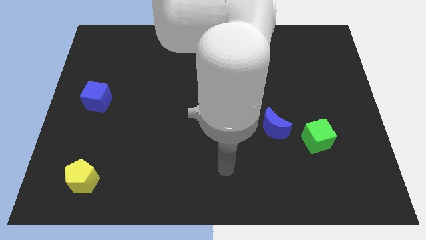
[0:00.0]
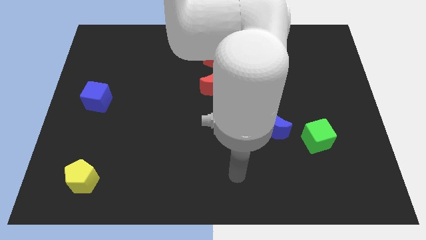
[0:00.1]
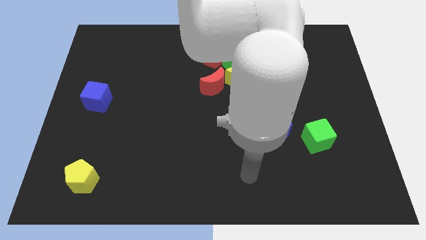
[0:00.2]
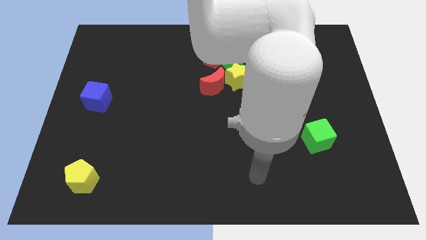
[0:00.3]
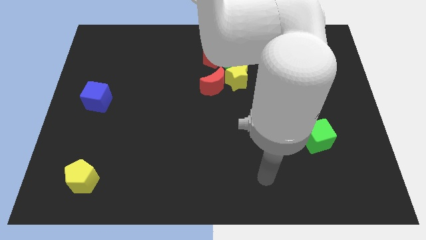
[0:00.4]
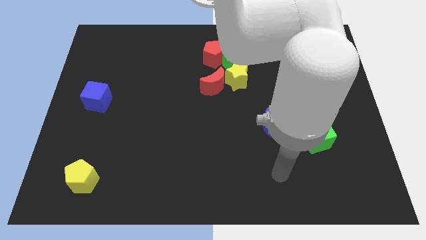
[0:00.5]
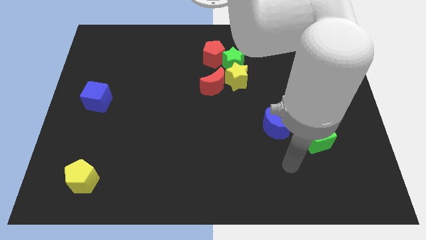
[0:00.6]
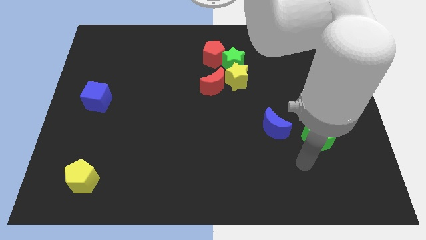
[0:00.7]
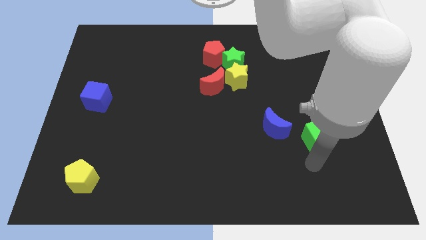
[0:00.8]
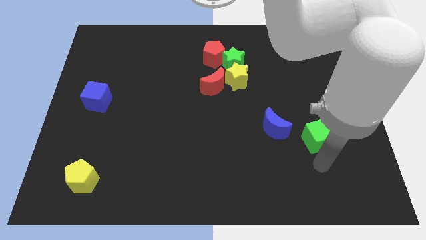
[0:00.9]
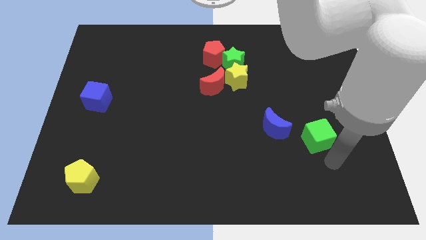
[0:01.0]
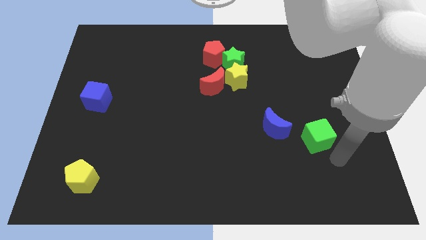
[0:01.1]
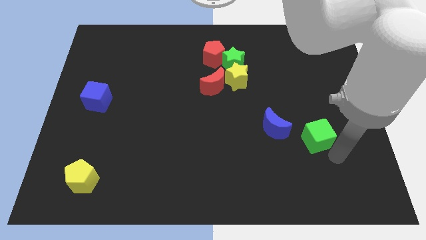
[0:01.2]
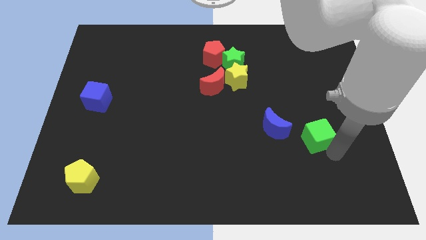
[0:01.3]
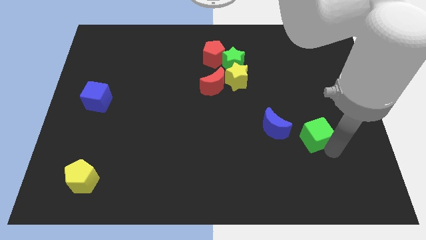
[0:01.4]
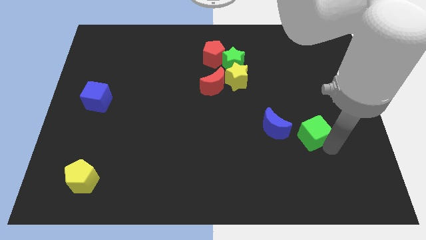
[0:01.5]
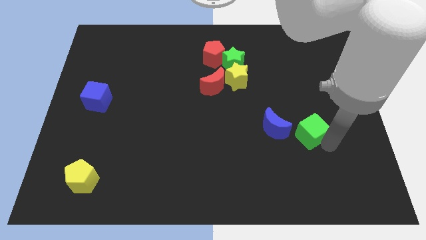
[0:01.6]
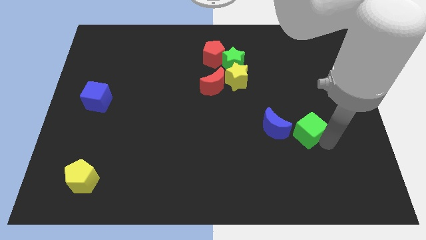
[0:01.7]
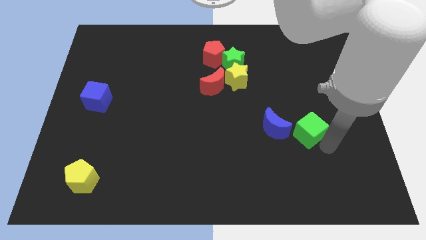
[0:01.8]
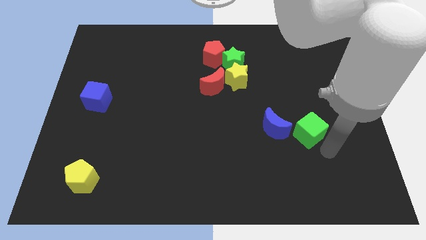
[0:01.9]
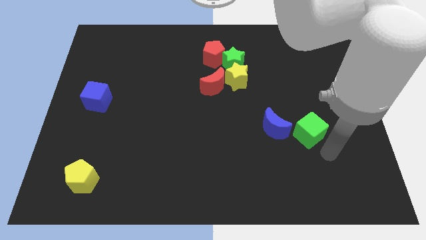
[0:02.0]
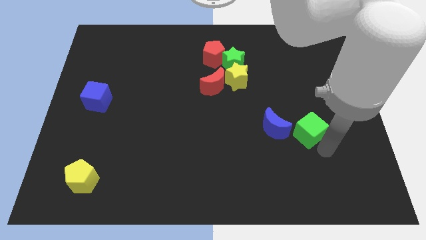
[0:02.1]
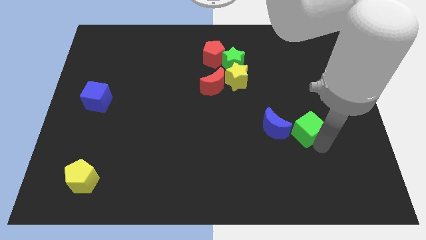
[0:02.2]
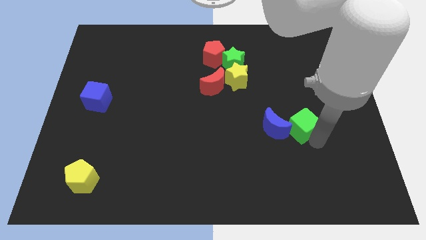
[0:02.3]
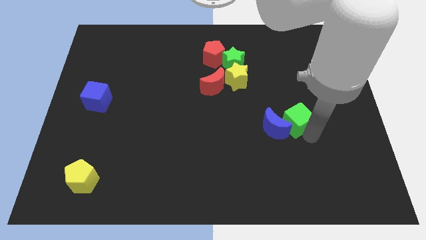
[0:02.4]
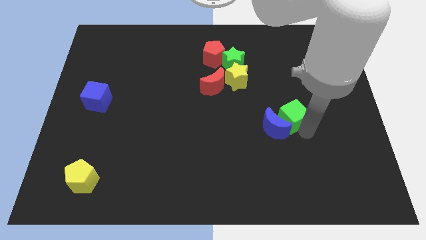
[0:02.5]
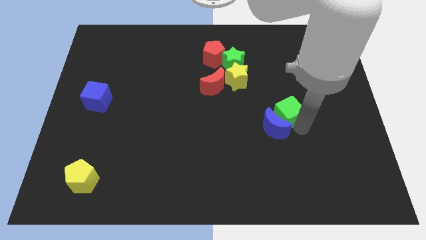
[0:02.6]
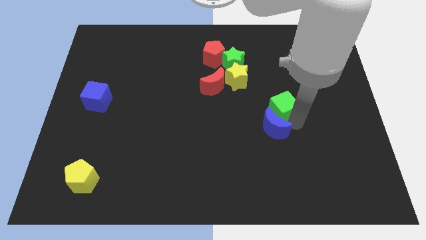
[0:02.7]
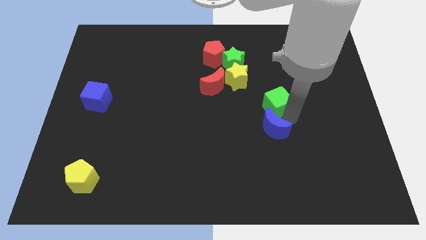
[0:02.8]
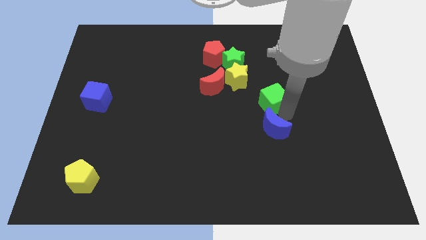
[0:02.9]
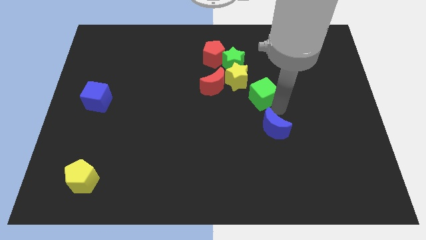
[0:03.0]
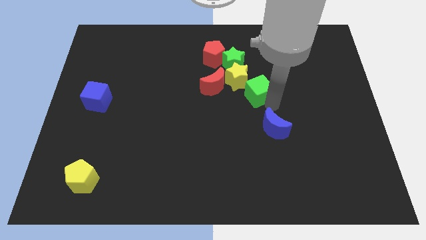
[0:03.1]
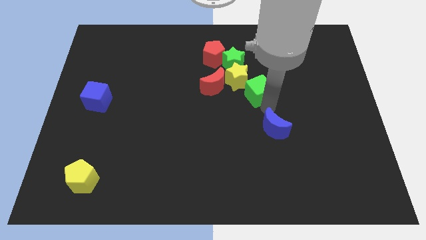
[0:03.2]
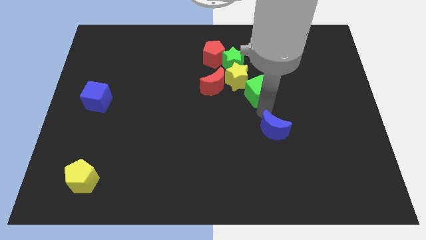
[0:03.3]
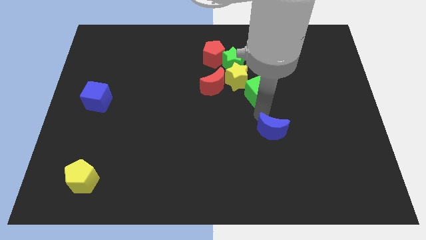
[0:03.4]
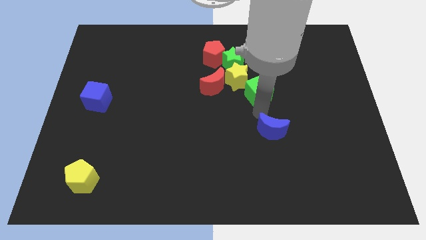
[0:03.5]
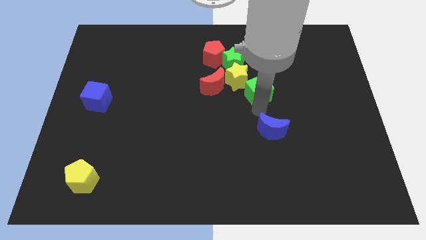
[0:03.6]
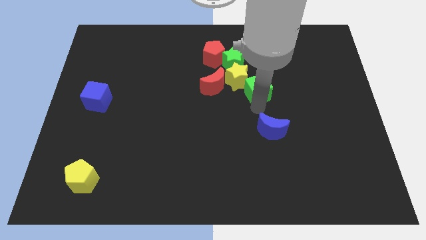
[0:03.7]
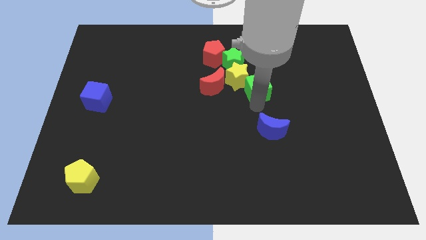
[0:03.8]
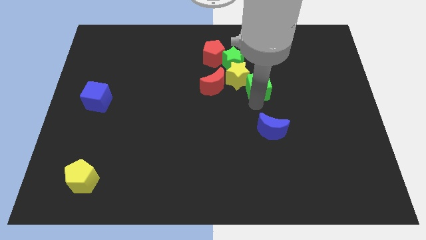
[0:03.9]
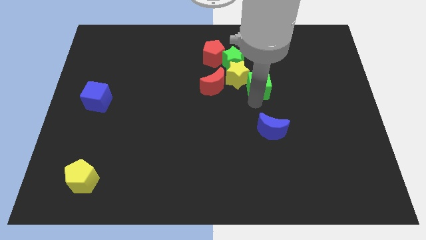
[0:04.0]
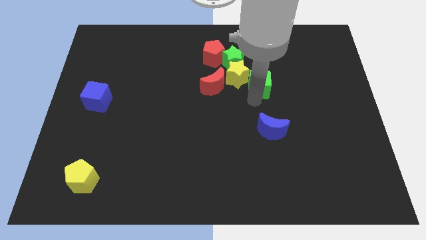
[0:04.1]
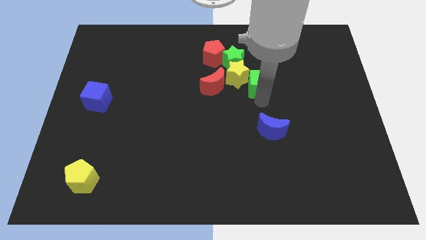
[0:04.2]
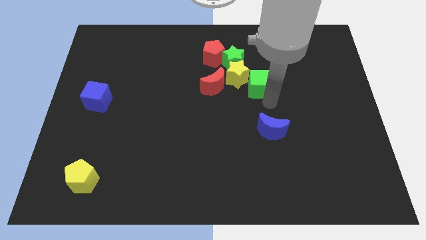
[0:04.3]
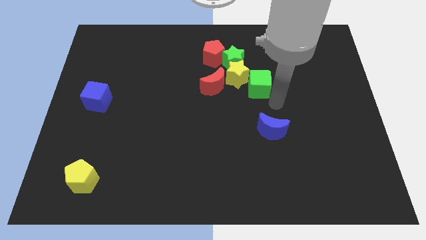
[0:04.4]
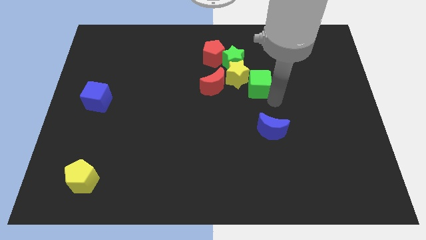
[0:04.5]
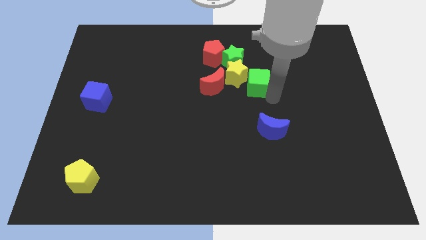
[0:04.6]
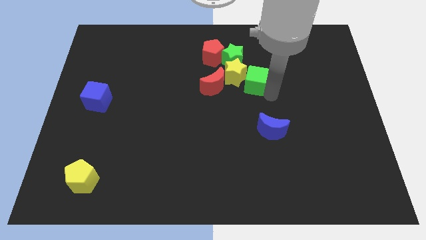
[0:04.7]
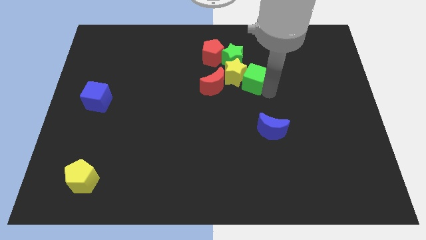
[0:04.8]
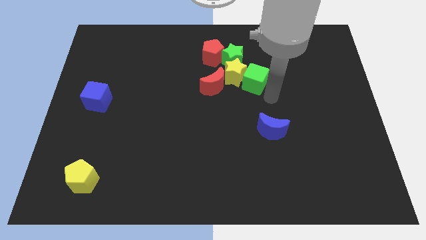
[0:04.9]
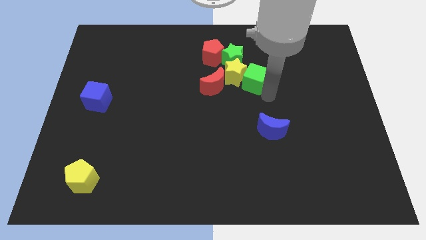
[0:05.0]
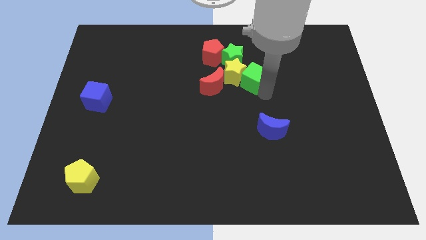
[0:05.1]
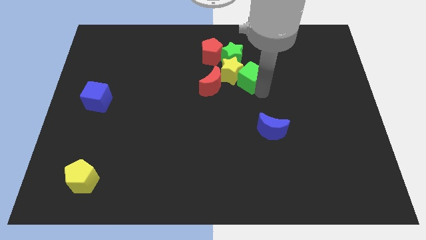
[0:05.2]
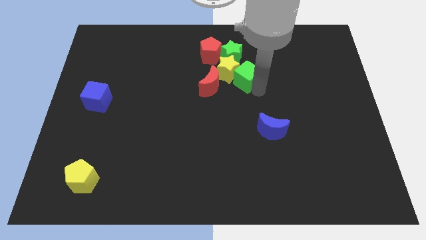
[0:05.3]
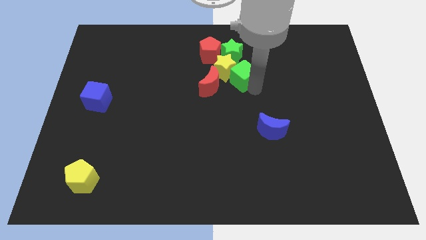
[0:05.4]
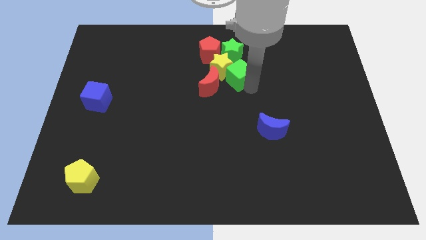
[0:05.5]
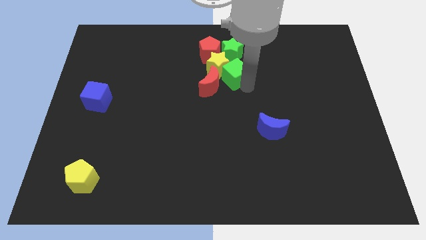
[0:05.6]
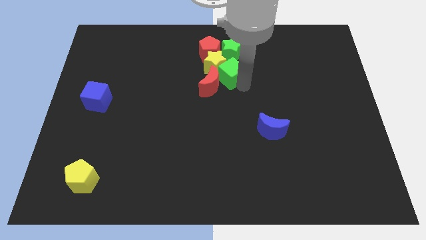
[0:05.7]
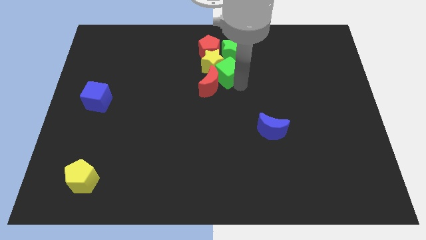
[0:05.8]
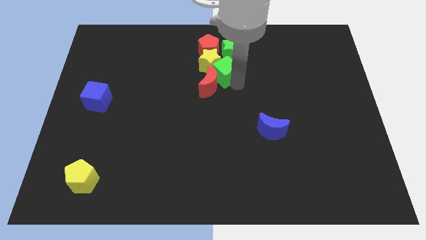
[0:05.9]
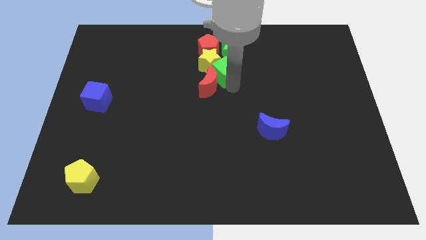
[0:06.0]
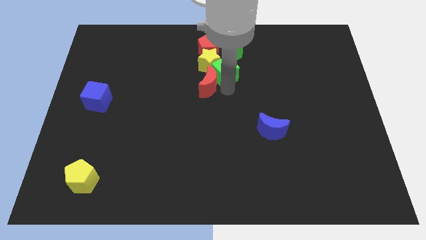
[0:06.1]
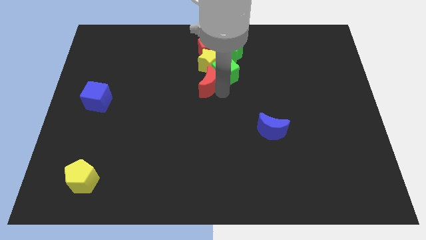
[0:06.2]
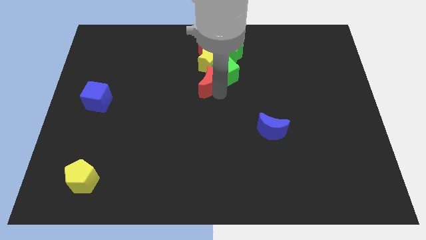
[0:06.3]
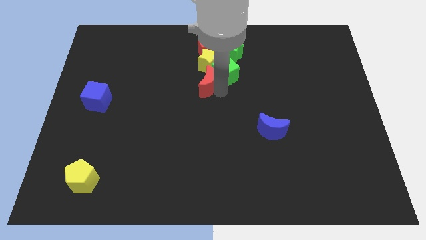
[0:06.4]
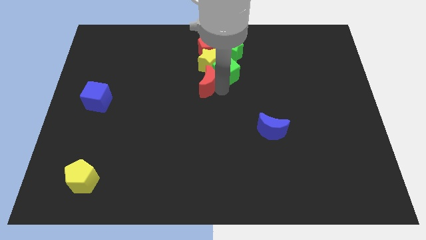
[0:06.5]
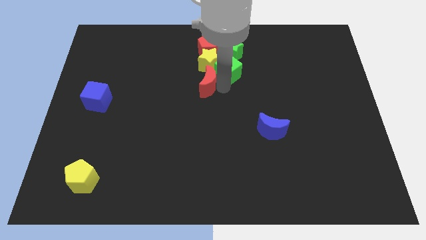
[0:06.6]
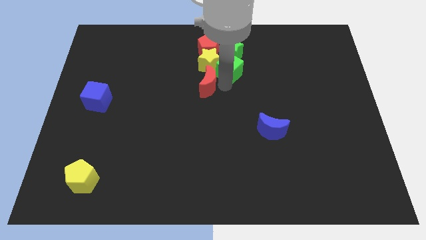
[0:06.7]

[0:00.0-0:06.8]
push the green cube towards the green star
